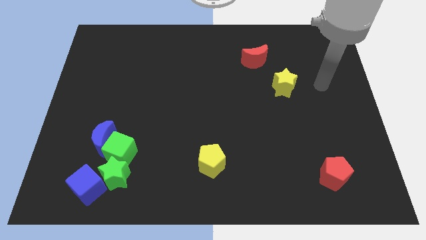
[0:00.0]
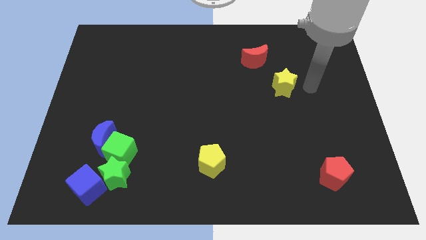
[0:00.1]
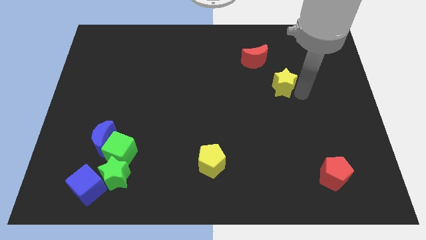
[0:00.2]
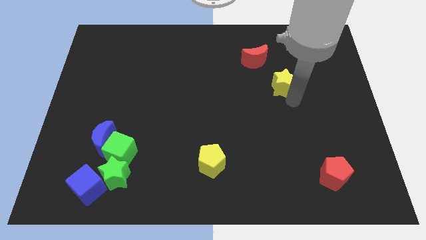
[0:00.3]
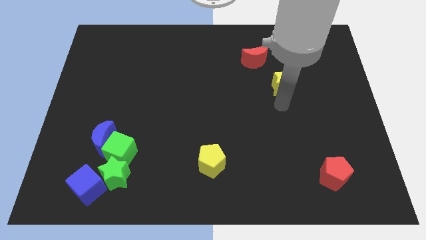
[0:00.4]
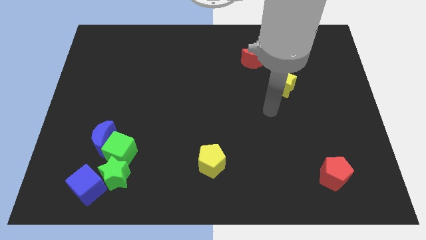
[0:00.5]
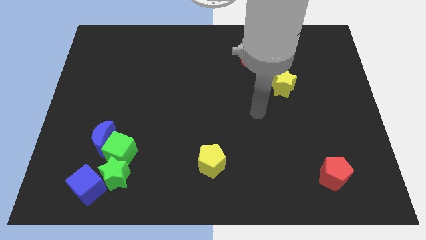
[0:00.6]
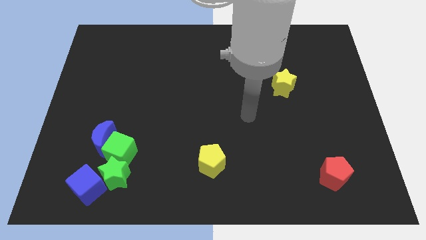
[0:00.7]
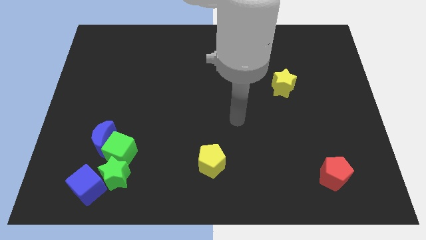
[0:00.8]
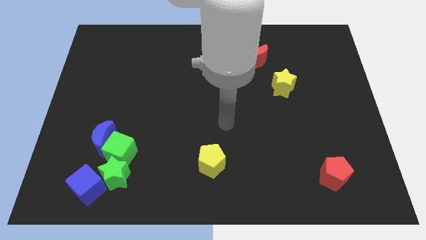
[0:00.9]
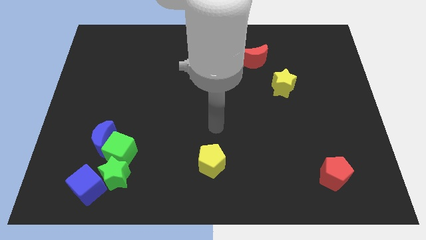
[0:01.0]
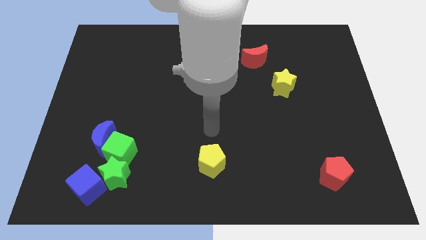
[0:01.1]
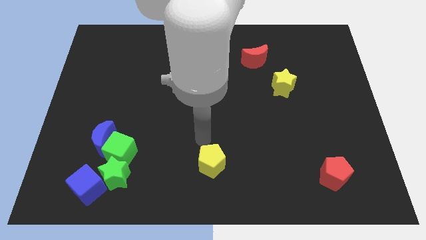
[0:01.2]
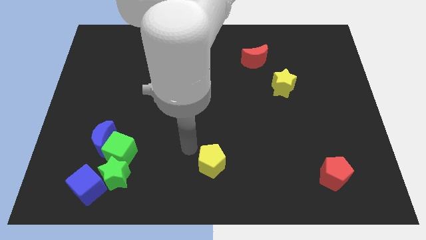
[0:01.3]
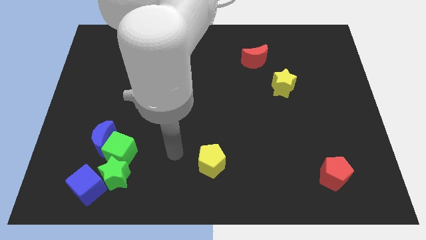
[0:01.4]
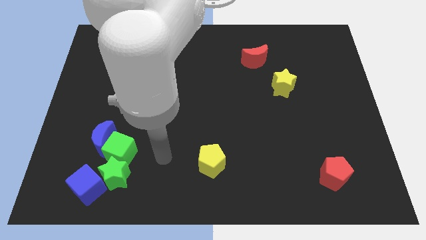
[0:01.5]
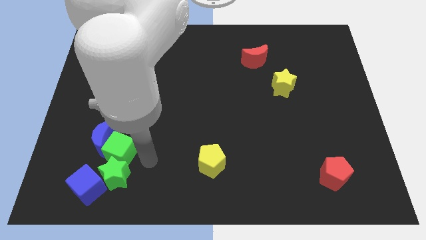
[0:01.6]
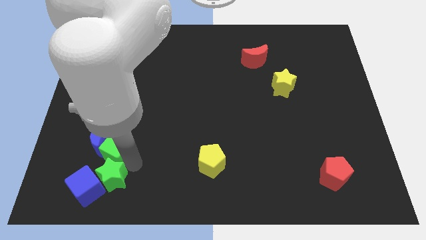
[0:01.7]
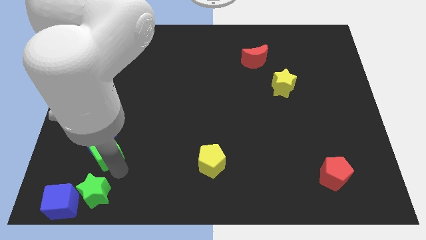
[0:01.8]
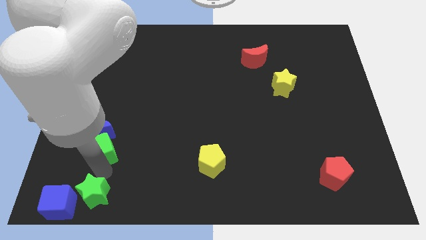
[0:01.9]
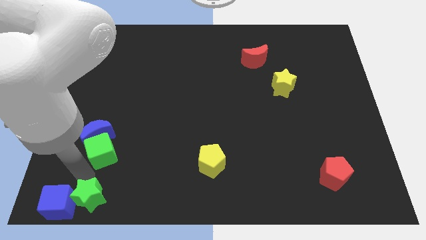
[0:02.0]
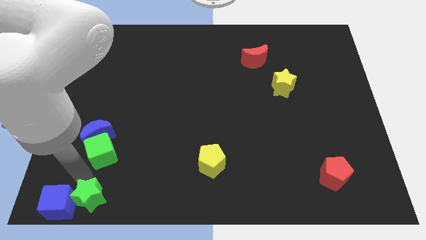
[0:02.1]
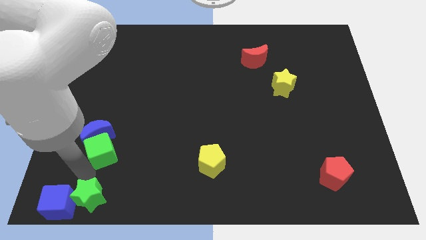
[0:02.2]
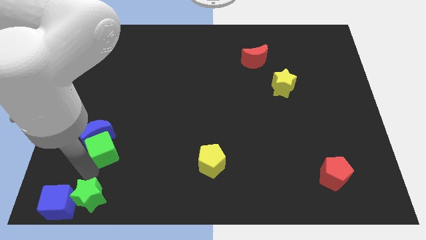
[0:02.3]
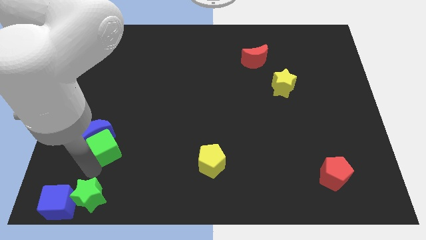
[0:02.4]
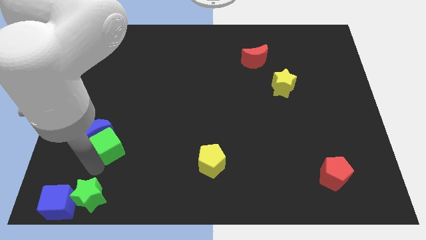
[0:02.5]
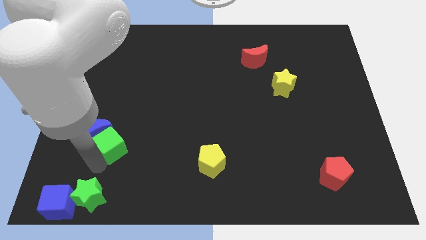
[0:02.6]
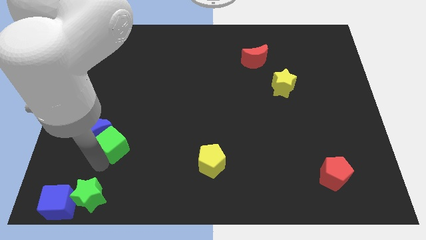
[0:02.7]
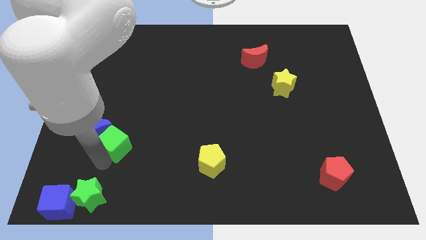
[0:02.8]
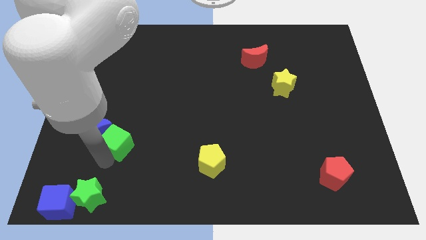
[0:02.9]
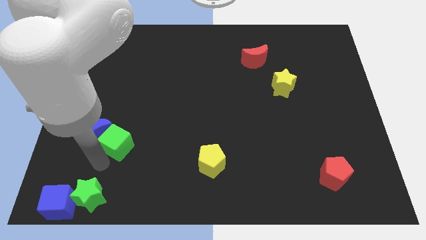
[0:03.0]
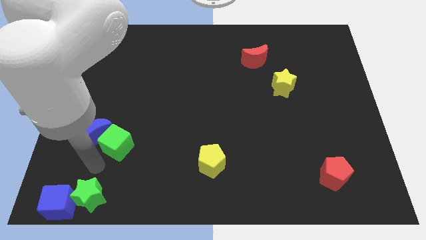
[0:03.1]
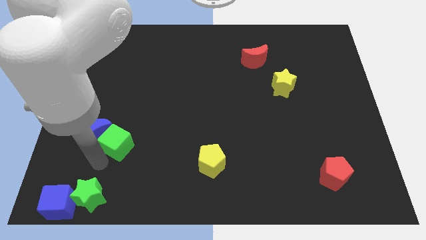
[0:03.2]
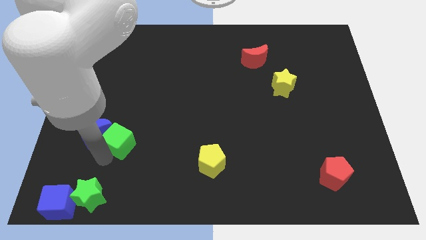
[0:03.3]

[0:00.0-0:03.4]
separate the green cube from the group

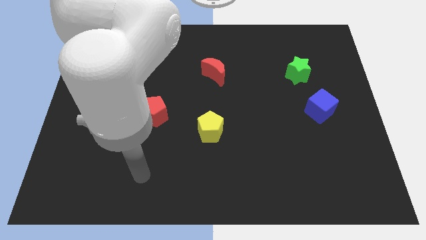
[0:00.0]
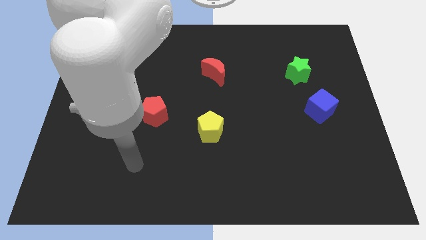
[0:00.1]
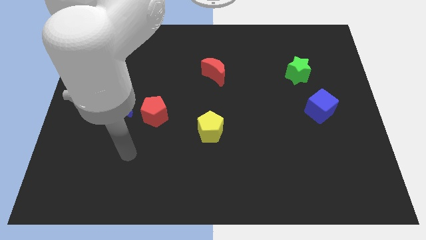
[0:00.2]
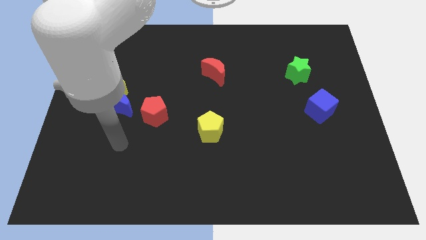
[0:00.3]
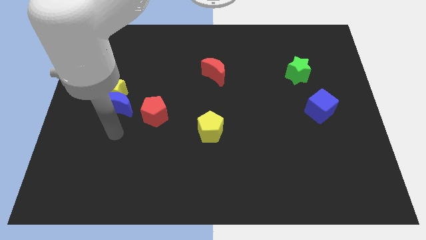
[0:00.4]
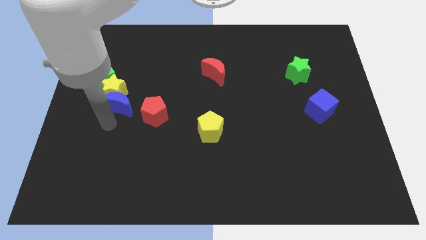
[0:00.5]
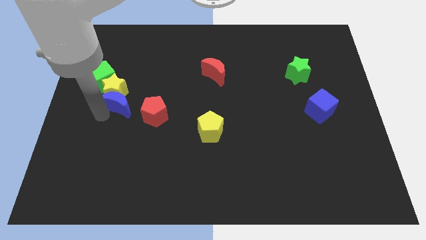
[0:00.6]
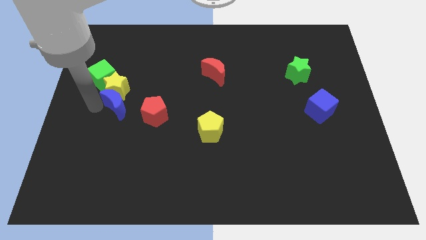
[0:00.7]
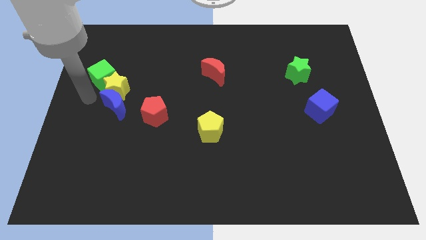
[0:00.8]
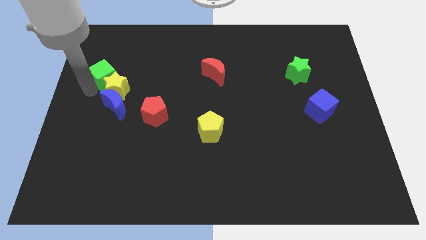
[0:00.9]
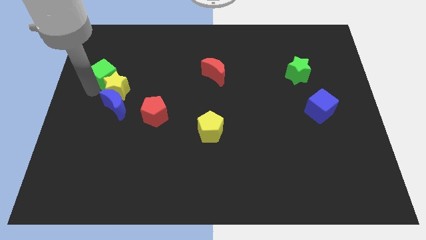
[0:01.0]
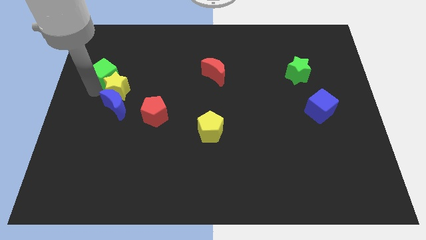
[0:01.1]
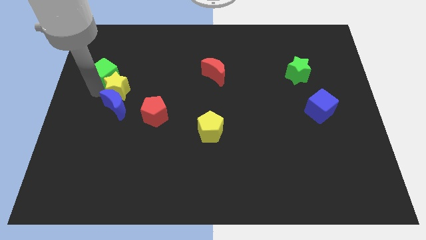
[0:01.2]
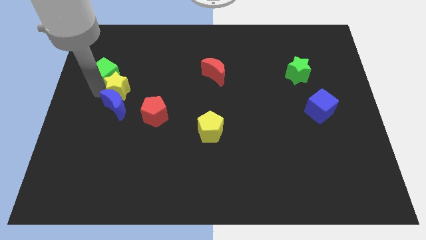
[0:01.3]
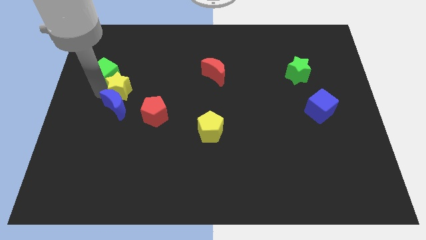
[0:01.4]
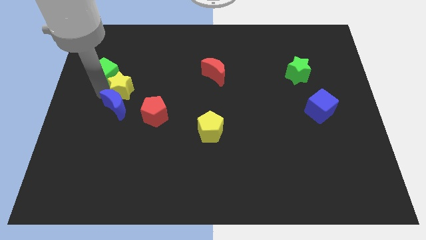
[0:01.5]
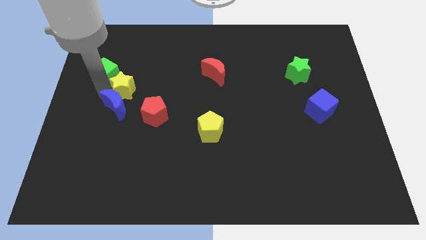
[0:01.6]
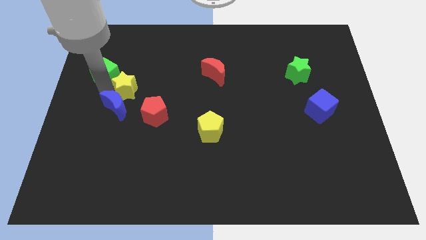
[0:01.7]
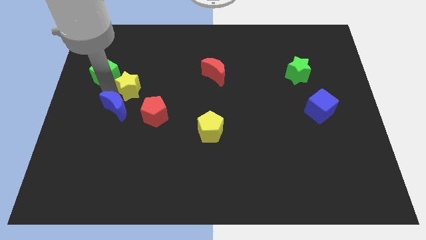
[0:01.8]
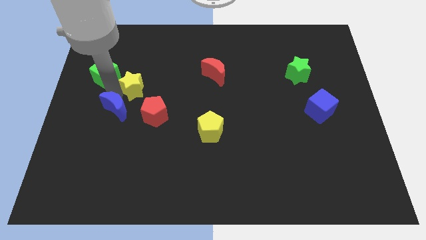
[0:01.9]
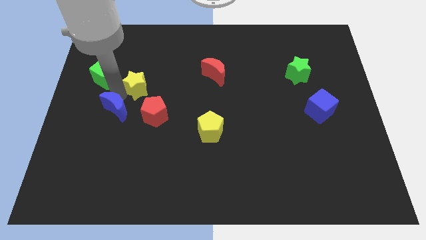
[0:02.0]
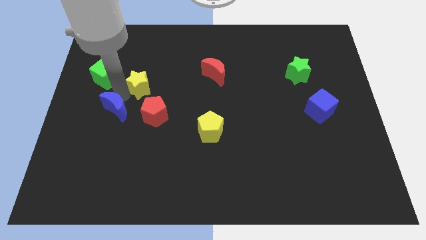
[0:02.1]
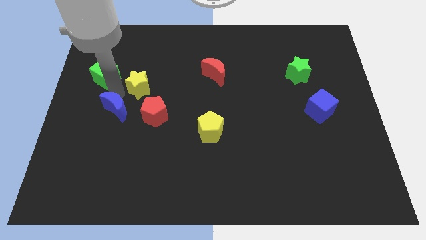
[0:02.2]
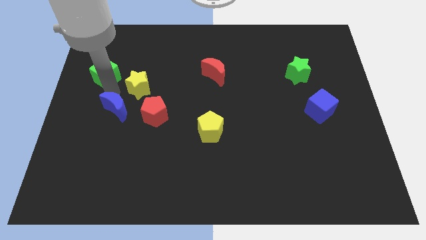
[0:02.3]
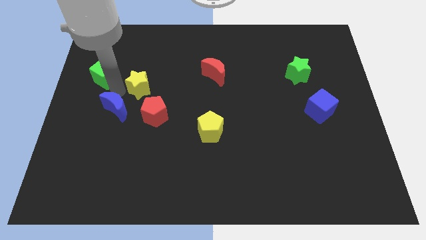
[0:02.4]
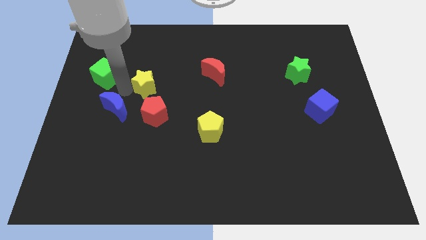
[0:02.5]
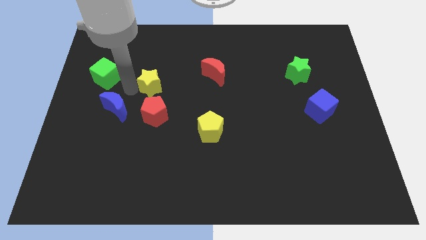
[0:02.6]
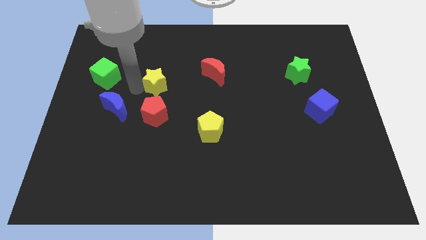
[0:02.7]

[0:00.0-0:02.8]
separate the yellow star from the blue moon and green cube

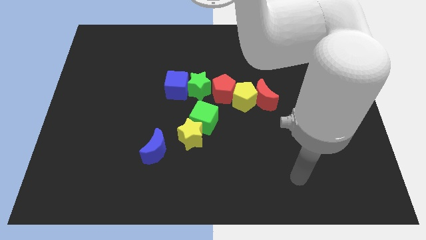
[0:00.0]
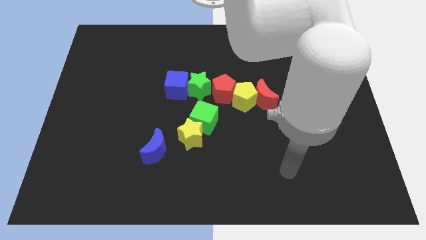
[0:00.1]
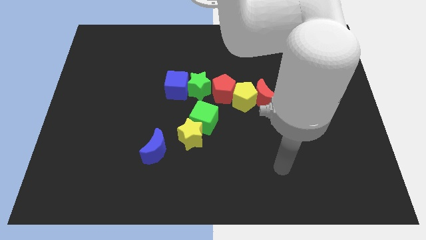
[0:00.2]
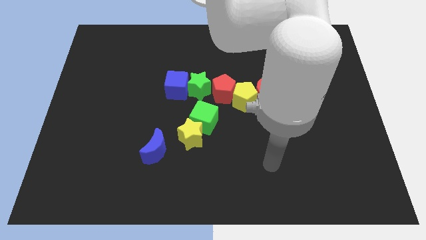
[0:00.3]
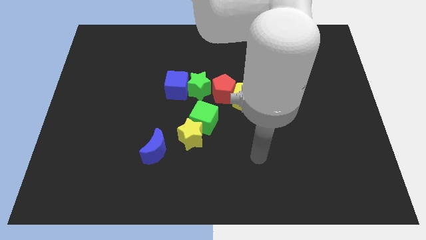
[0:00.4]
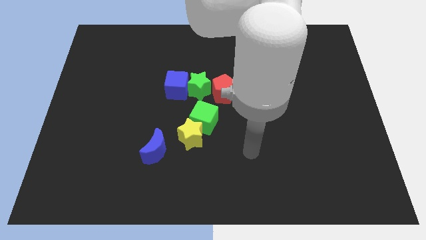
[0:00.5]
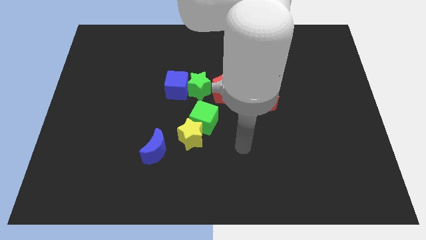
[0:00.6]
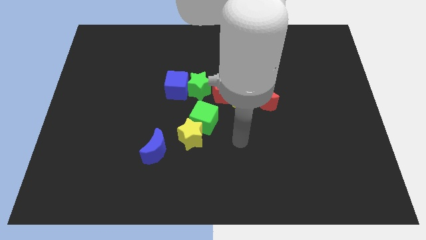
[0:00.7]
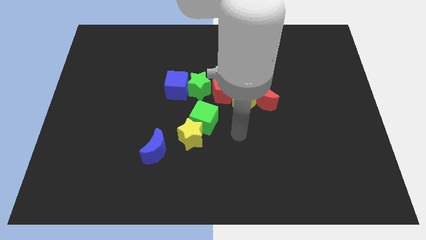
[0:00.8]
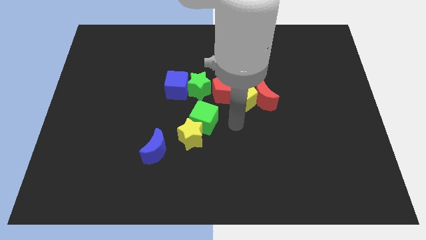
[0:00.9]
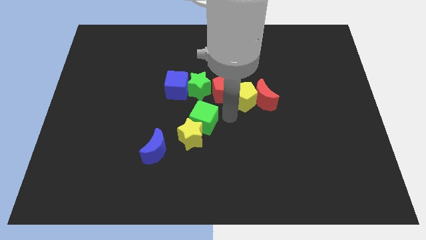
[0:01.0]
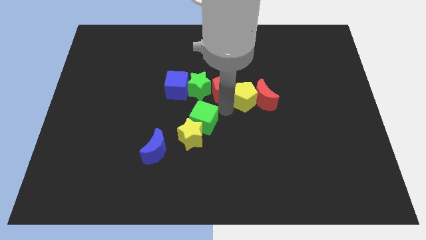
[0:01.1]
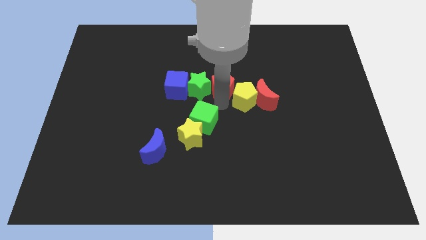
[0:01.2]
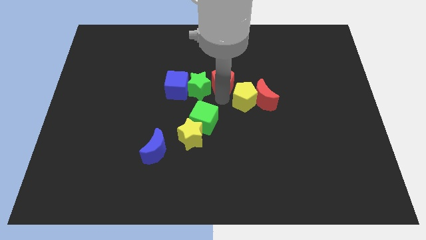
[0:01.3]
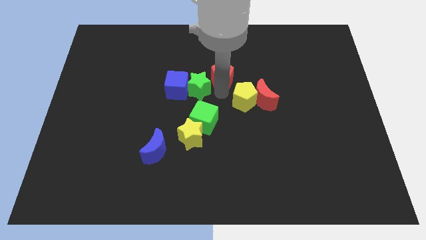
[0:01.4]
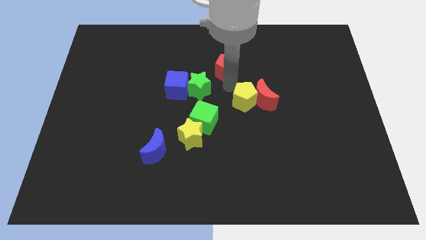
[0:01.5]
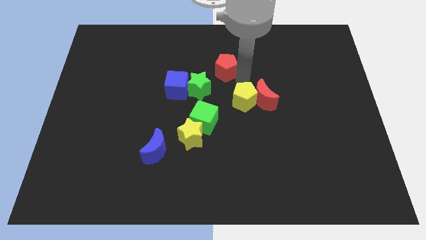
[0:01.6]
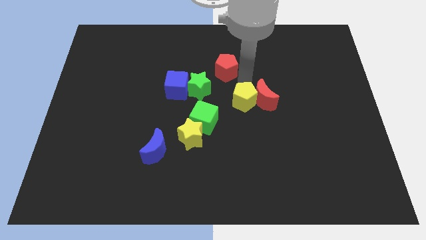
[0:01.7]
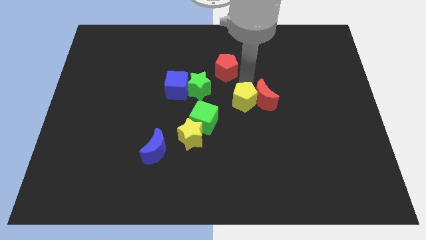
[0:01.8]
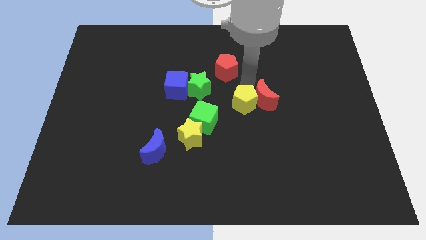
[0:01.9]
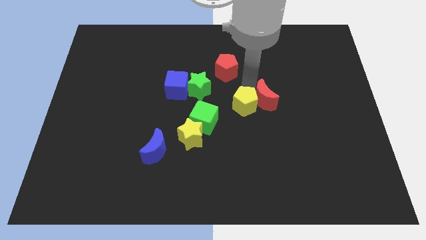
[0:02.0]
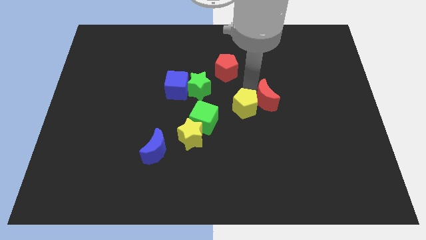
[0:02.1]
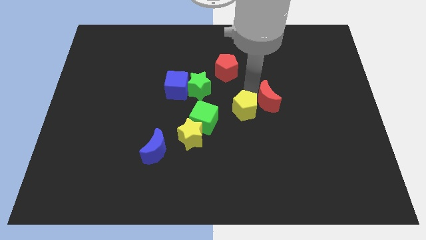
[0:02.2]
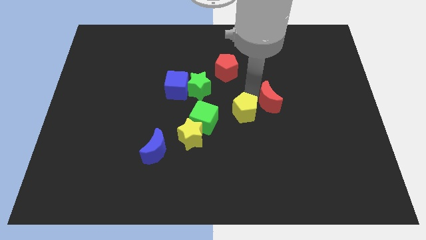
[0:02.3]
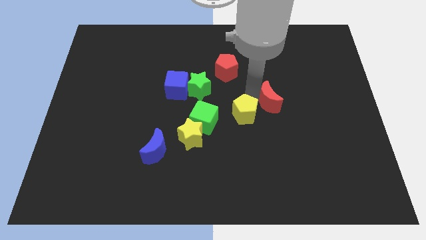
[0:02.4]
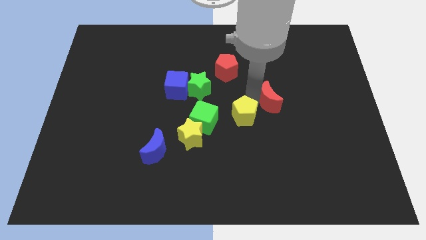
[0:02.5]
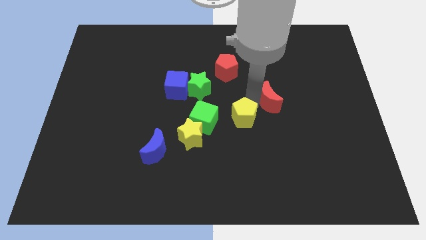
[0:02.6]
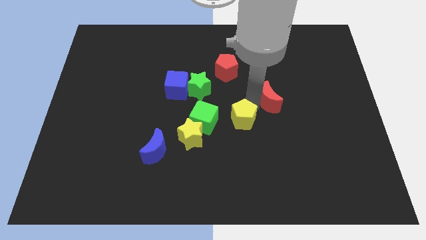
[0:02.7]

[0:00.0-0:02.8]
pull the yellow pentagon apart from the red moon and red pentagon

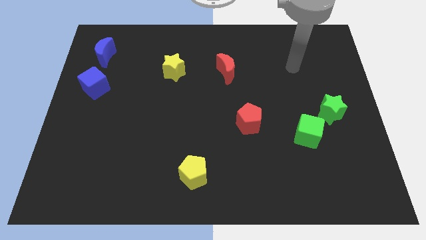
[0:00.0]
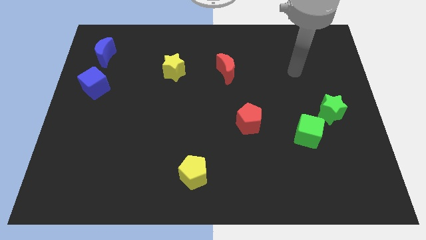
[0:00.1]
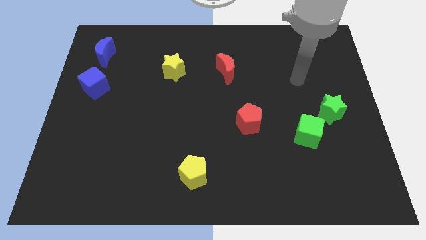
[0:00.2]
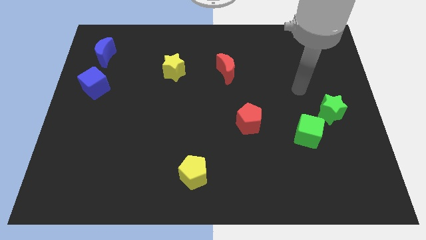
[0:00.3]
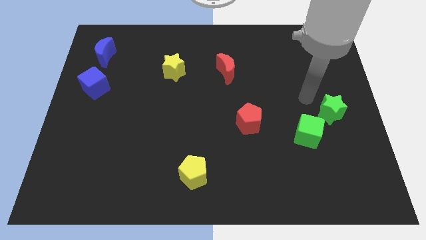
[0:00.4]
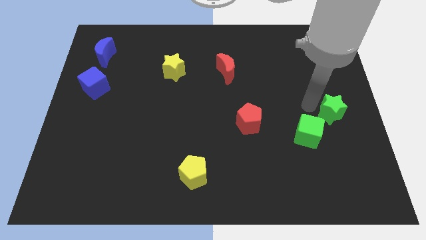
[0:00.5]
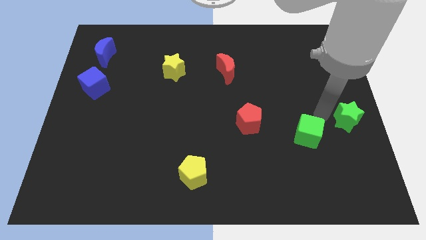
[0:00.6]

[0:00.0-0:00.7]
pull the green cube apart from the green star
